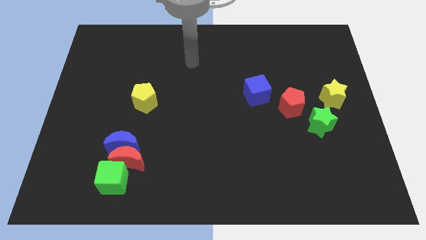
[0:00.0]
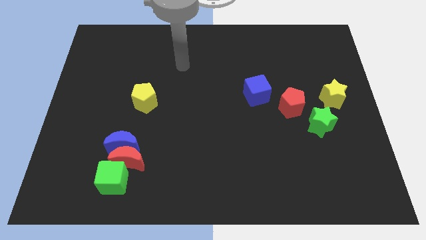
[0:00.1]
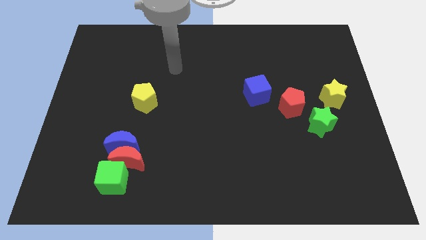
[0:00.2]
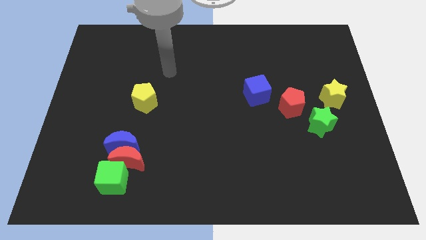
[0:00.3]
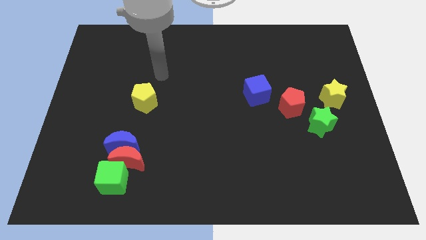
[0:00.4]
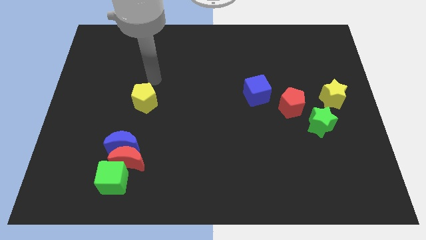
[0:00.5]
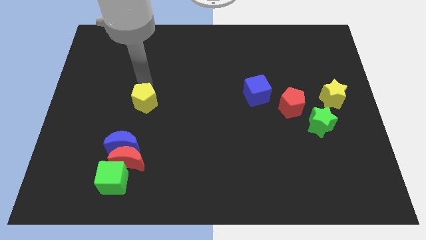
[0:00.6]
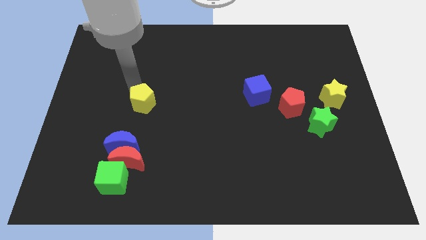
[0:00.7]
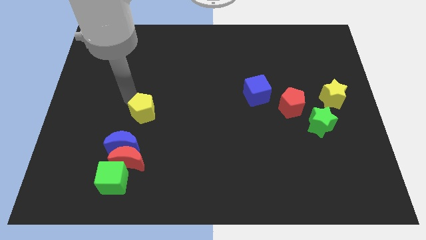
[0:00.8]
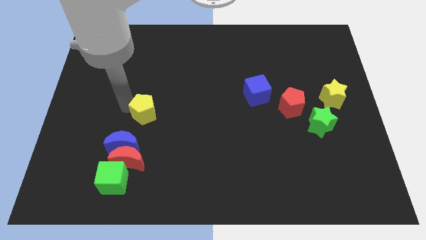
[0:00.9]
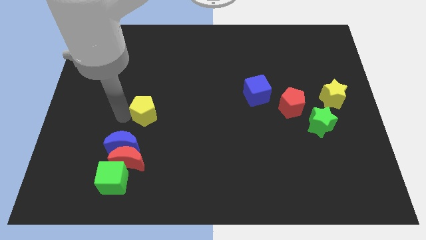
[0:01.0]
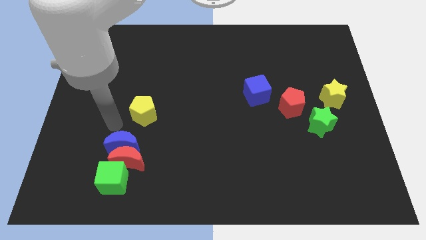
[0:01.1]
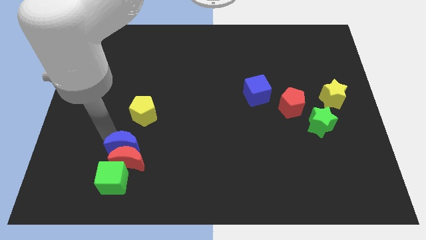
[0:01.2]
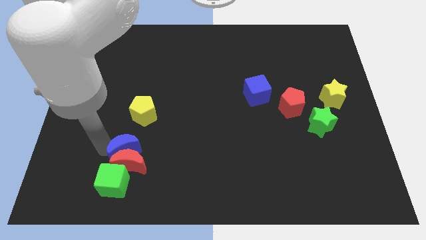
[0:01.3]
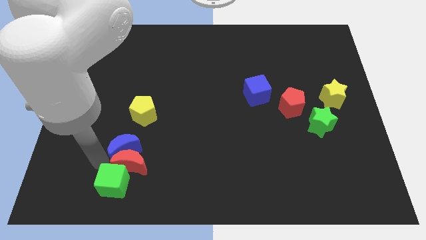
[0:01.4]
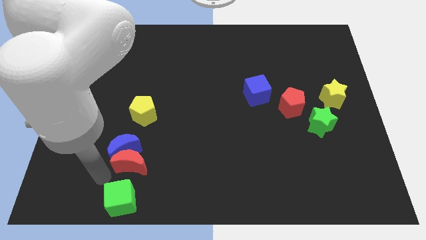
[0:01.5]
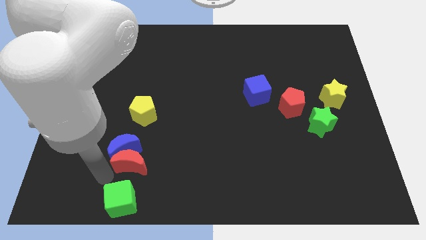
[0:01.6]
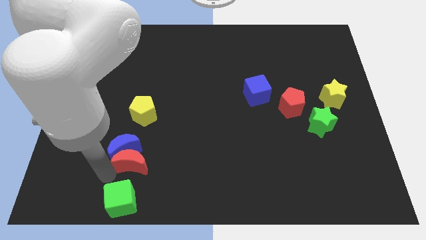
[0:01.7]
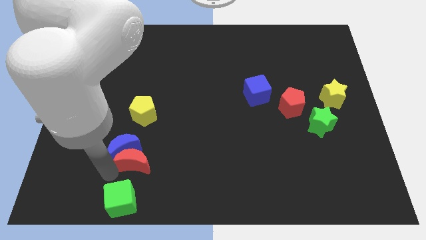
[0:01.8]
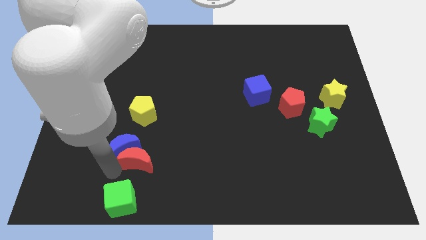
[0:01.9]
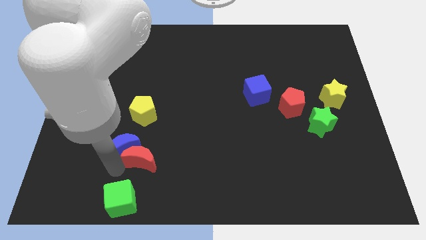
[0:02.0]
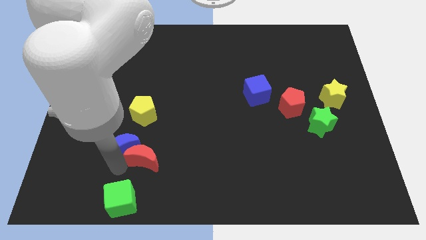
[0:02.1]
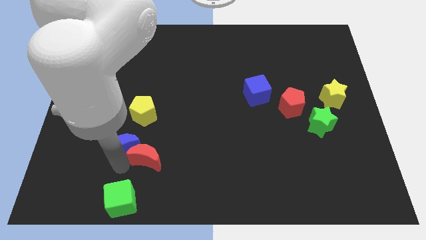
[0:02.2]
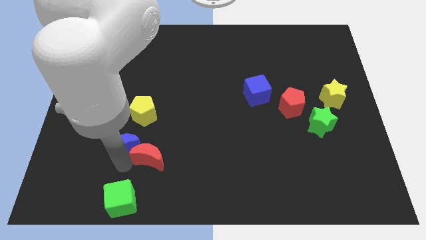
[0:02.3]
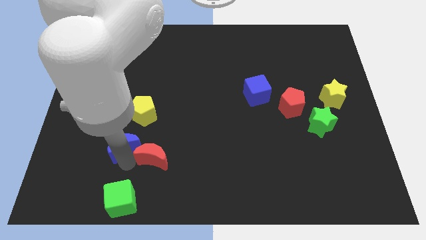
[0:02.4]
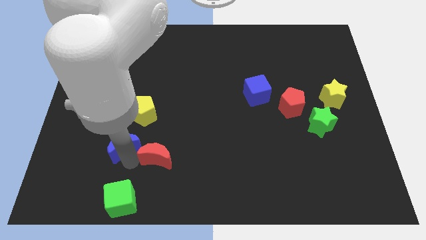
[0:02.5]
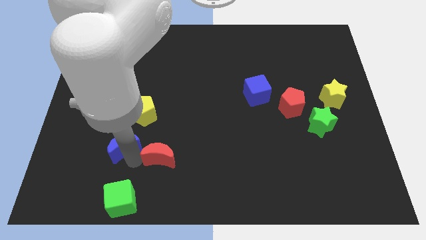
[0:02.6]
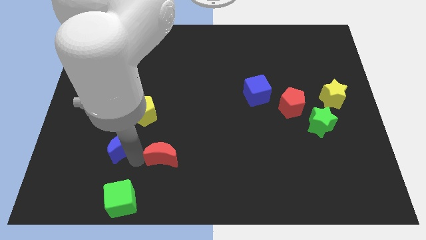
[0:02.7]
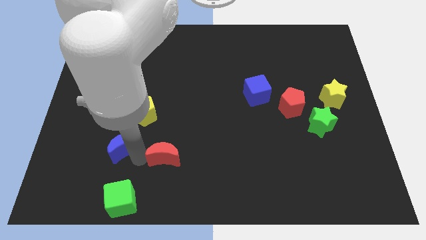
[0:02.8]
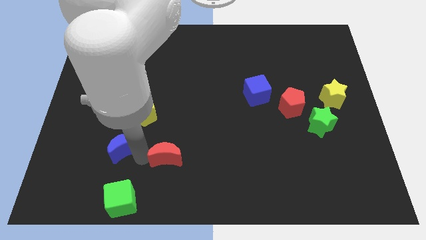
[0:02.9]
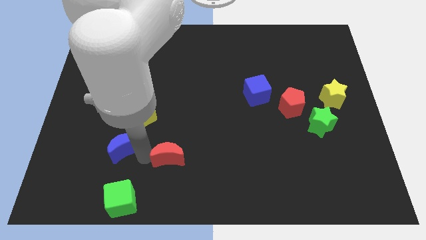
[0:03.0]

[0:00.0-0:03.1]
pull the red moon apart from the blue moon and green cube

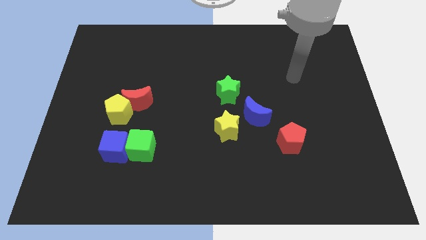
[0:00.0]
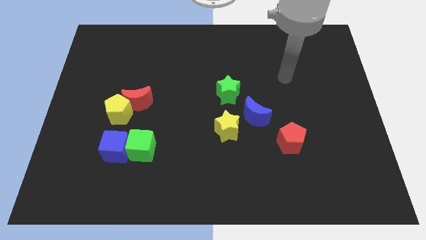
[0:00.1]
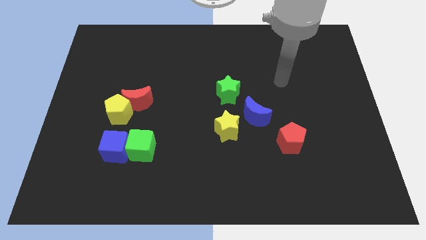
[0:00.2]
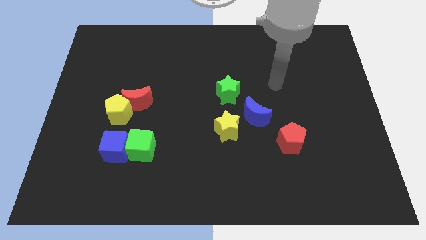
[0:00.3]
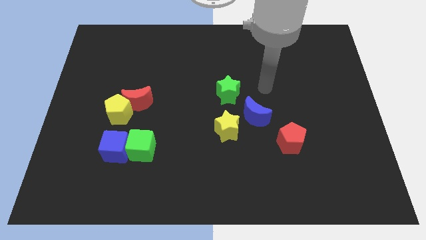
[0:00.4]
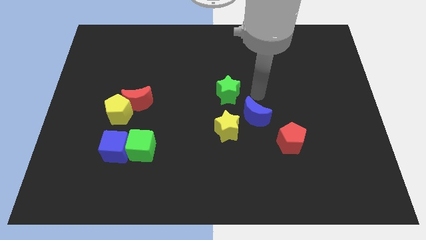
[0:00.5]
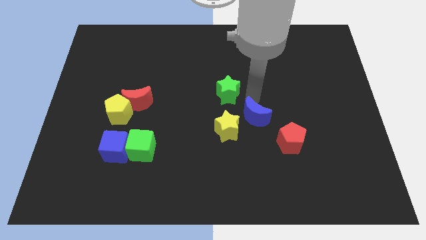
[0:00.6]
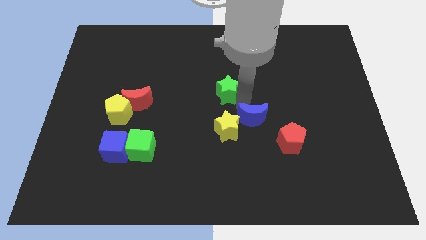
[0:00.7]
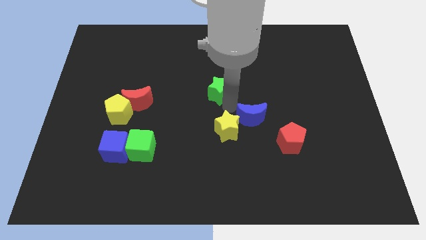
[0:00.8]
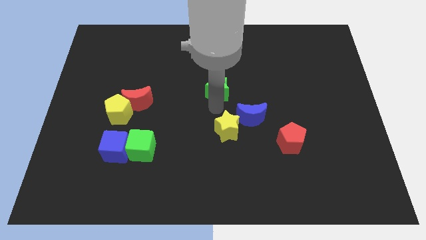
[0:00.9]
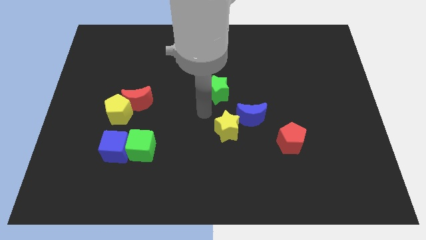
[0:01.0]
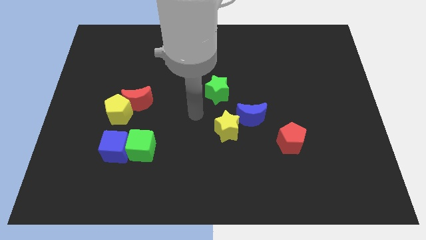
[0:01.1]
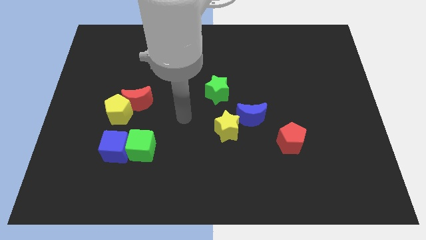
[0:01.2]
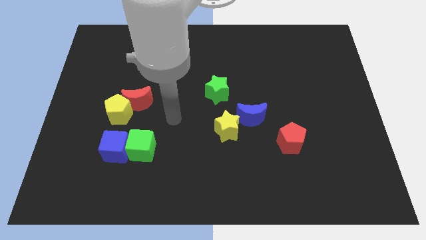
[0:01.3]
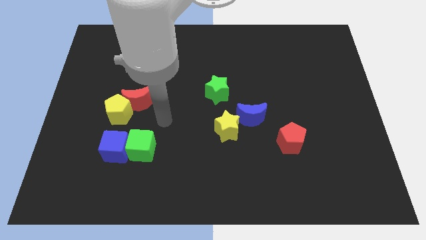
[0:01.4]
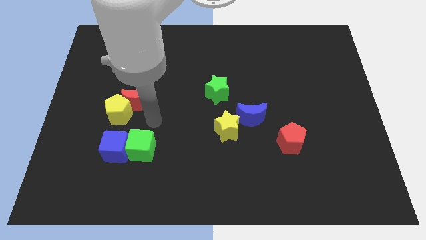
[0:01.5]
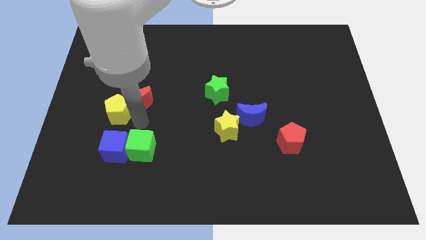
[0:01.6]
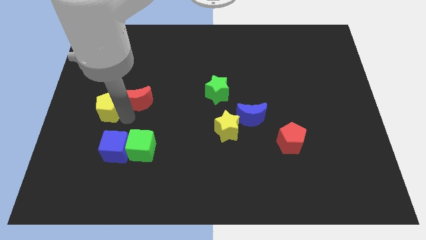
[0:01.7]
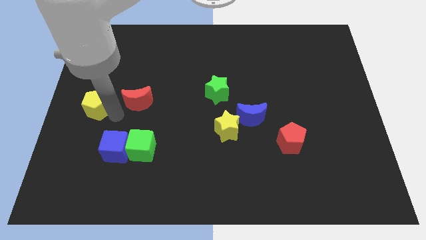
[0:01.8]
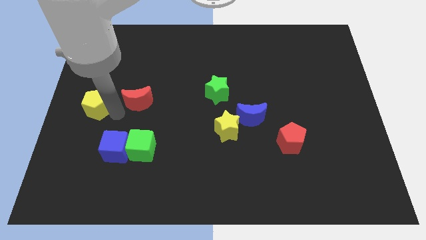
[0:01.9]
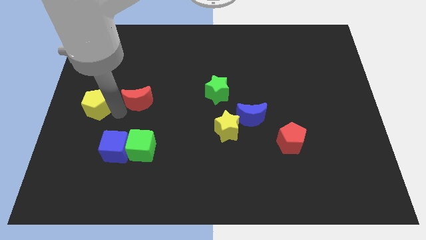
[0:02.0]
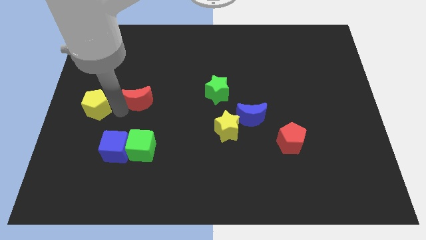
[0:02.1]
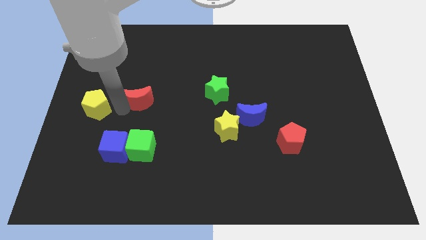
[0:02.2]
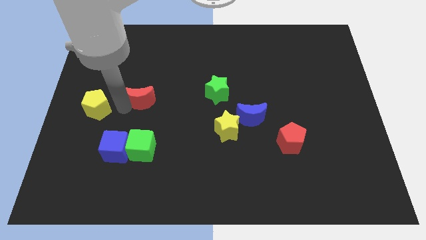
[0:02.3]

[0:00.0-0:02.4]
separate the red moon from the yellow pentagon

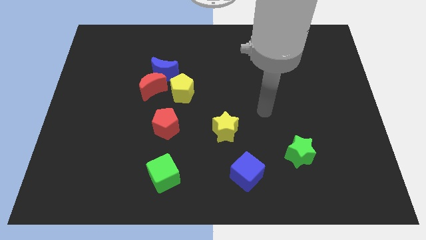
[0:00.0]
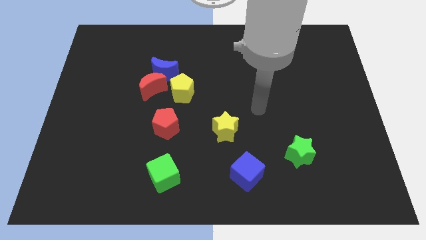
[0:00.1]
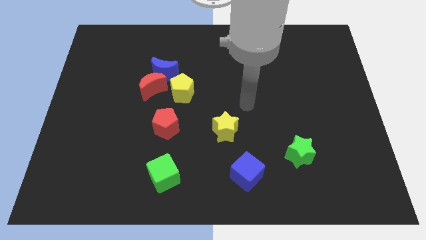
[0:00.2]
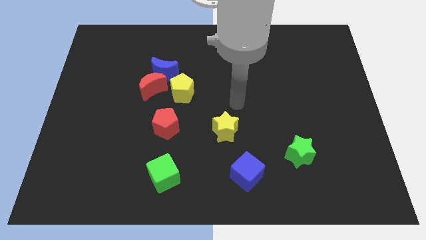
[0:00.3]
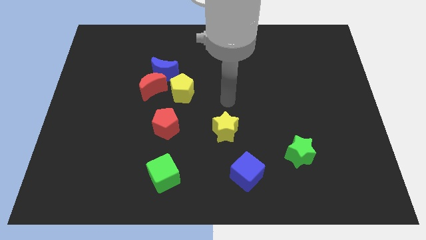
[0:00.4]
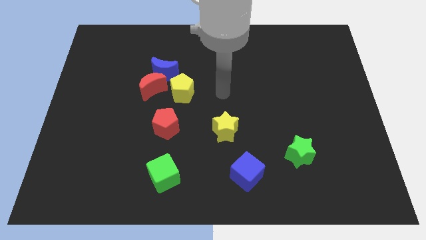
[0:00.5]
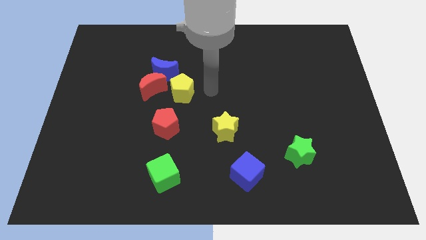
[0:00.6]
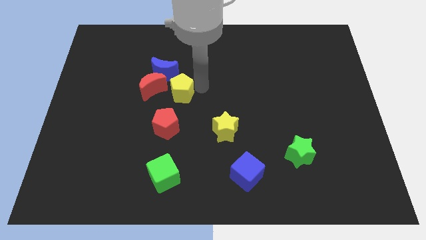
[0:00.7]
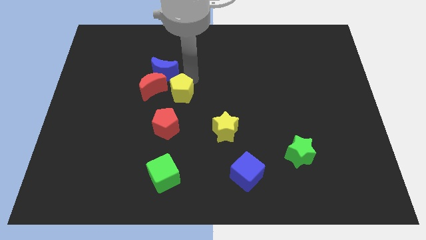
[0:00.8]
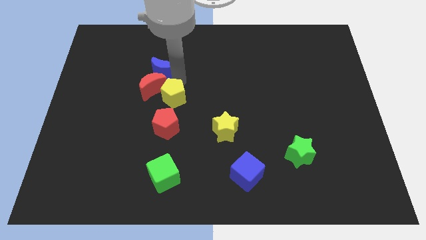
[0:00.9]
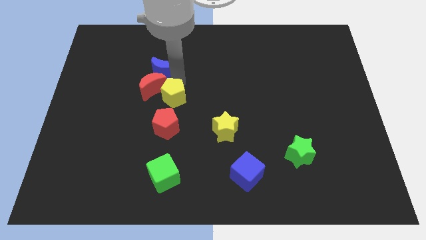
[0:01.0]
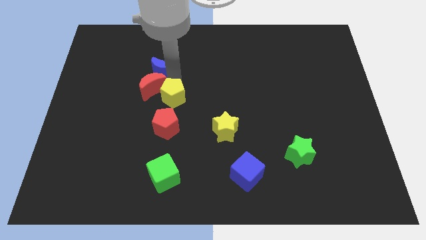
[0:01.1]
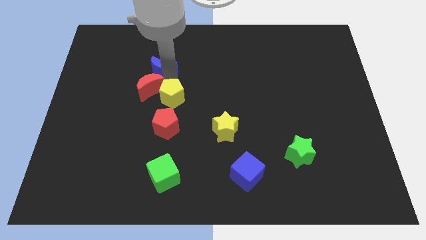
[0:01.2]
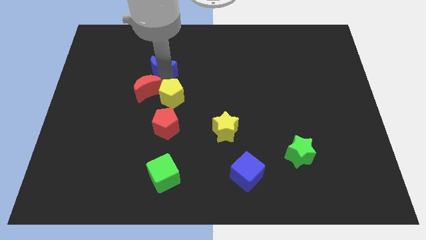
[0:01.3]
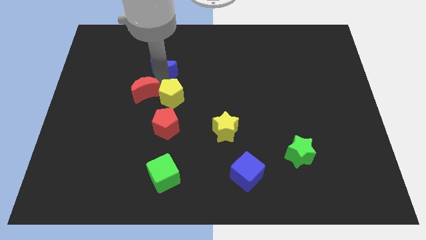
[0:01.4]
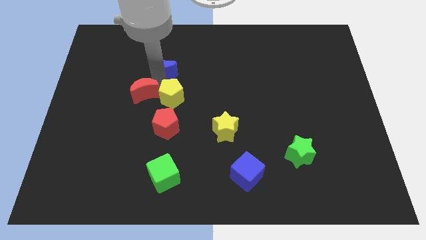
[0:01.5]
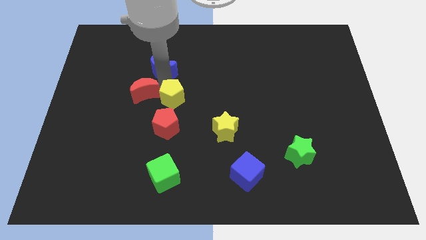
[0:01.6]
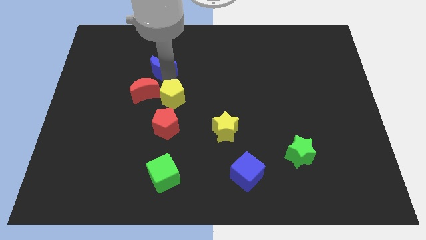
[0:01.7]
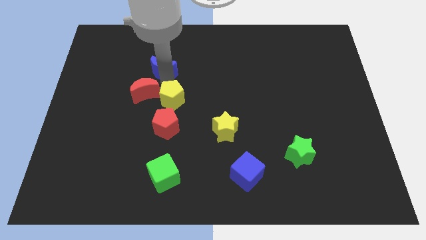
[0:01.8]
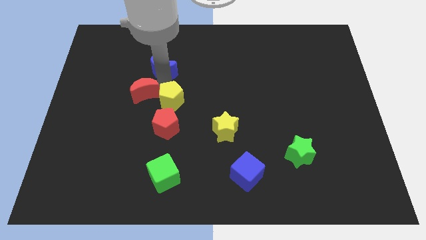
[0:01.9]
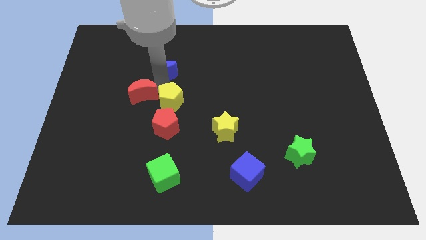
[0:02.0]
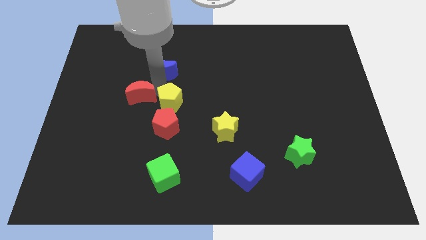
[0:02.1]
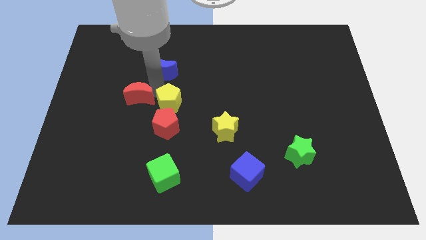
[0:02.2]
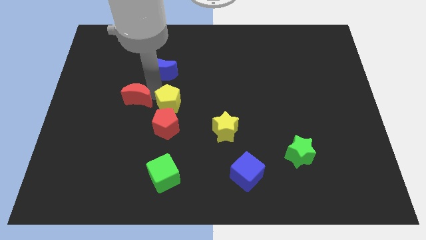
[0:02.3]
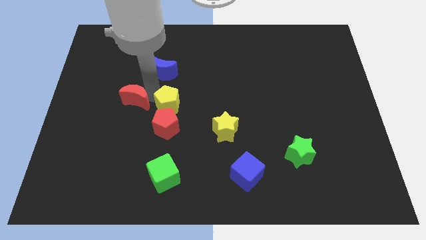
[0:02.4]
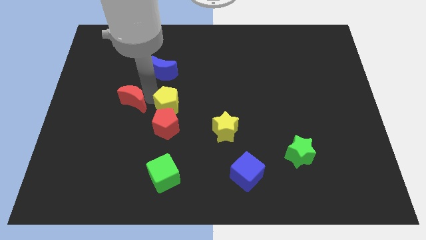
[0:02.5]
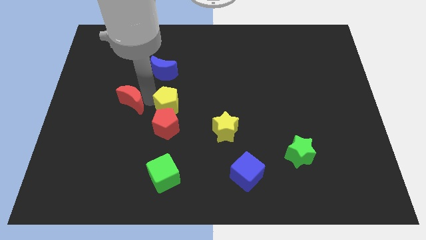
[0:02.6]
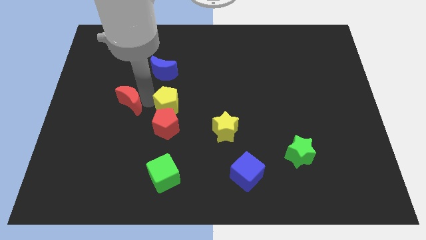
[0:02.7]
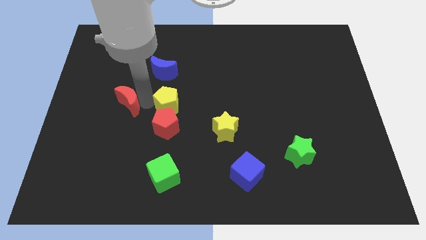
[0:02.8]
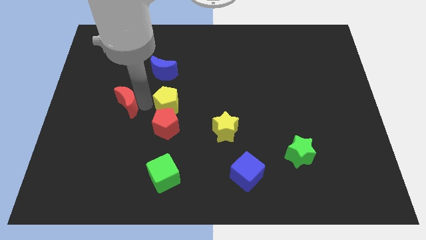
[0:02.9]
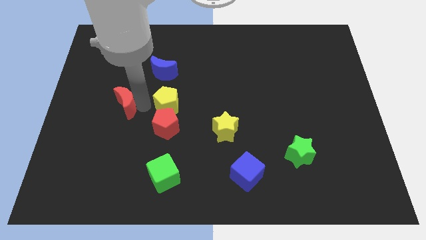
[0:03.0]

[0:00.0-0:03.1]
separate the red moon from the blue moon and yellow pentagon

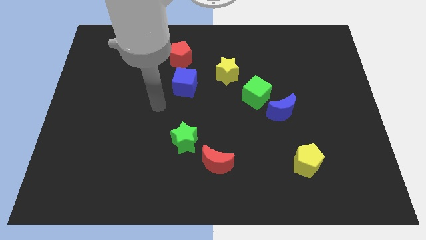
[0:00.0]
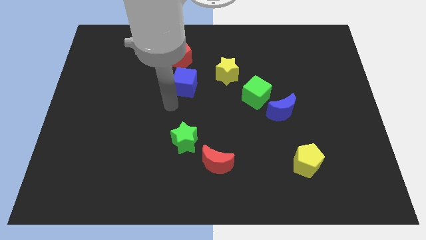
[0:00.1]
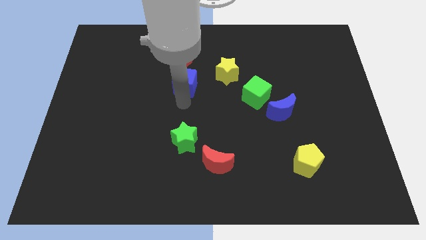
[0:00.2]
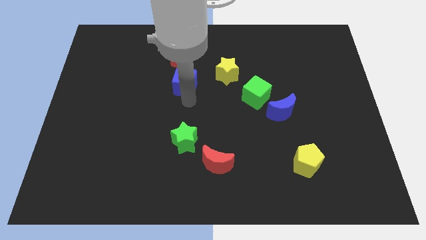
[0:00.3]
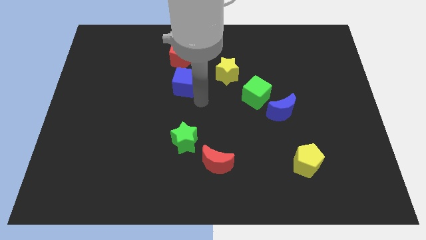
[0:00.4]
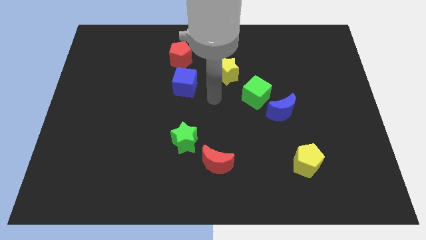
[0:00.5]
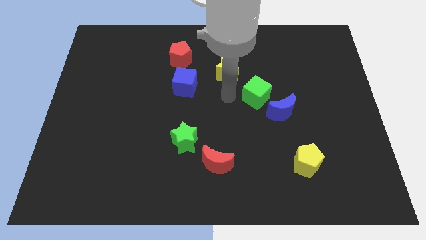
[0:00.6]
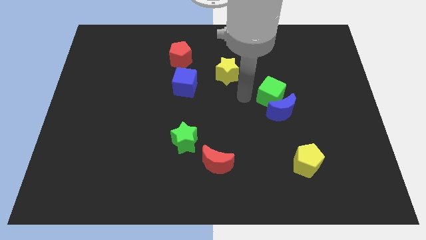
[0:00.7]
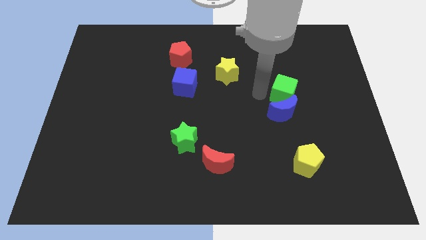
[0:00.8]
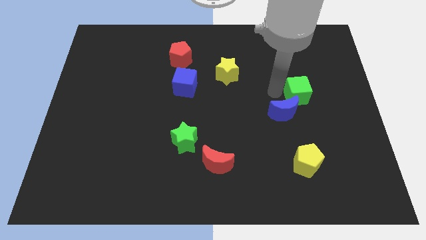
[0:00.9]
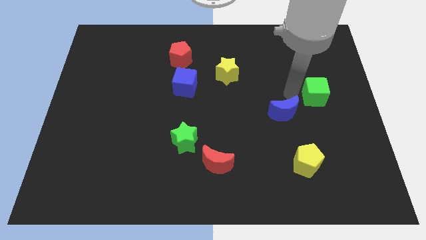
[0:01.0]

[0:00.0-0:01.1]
pull the blue moon apart from the green cube
